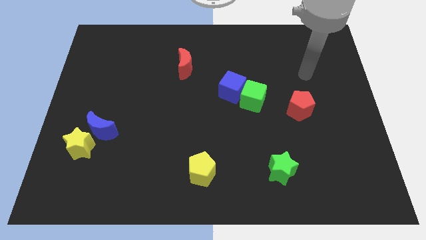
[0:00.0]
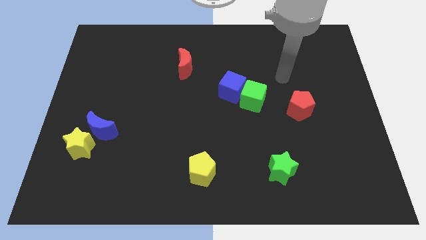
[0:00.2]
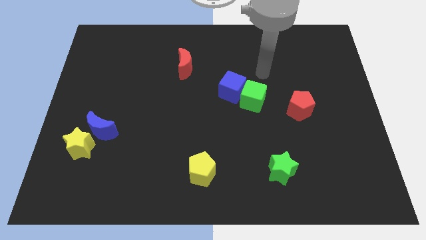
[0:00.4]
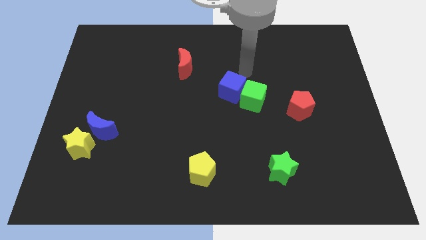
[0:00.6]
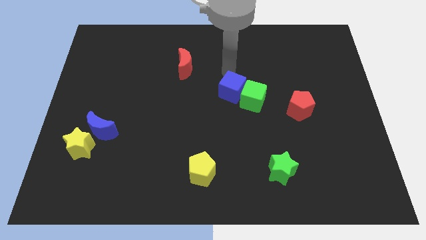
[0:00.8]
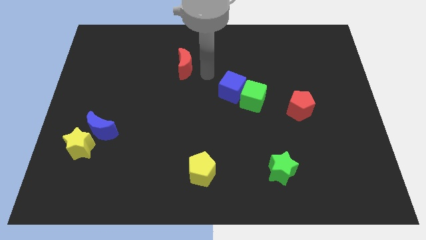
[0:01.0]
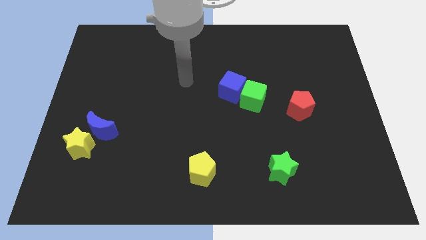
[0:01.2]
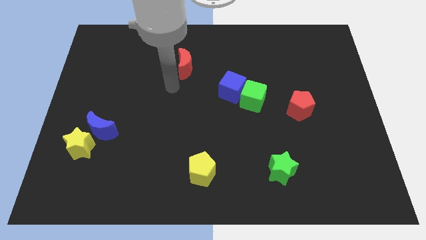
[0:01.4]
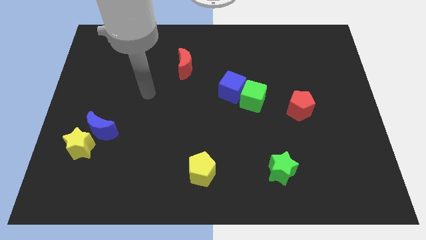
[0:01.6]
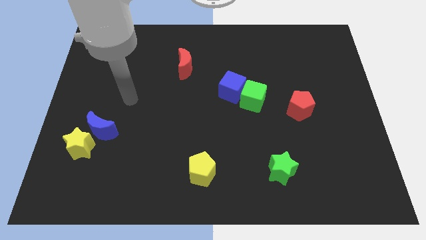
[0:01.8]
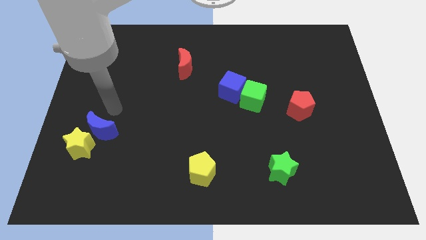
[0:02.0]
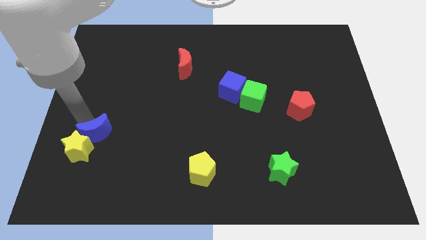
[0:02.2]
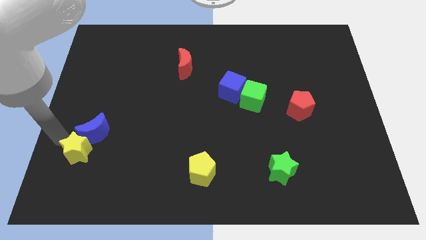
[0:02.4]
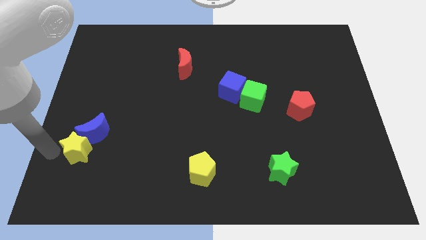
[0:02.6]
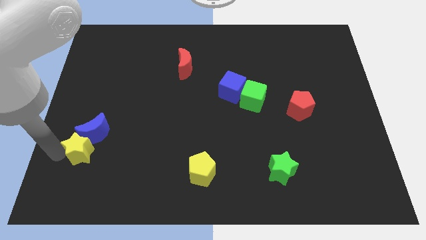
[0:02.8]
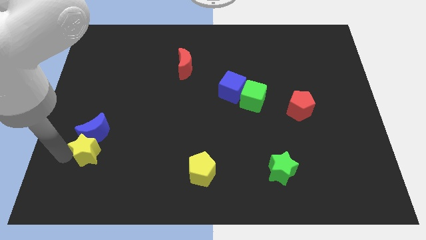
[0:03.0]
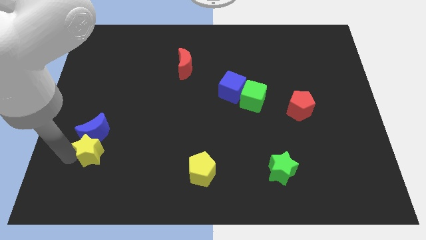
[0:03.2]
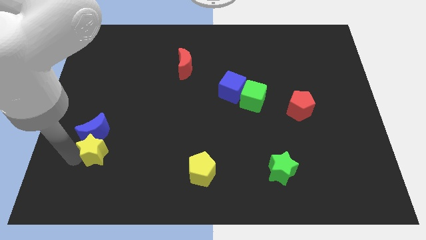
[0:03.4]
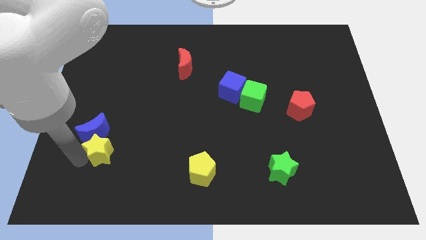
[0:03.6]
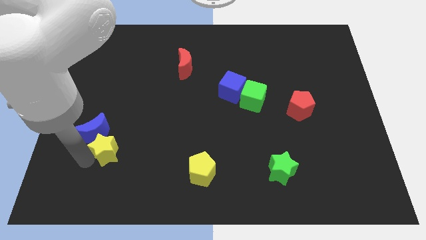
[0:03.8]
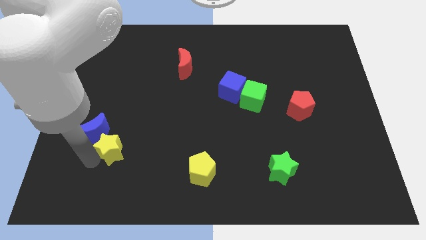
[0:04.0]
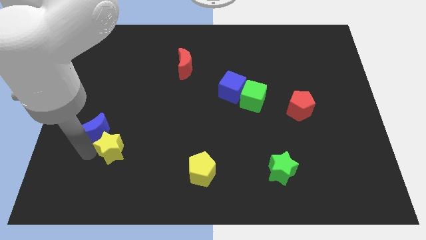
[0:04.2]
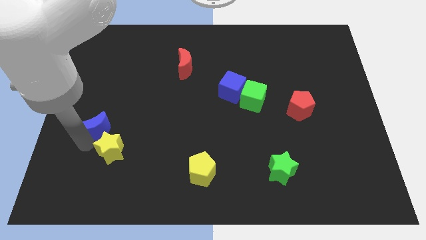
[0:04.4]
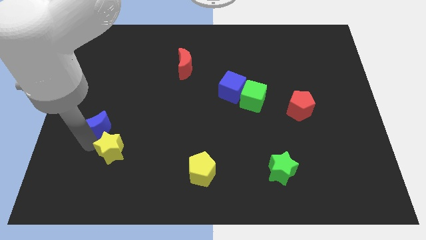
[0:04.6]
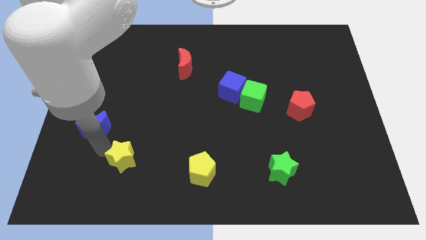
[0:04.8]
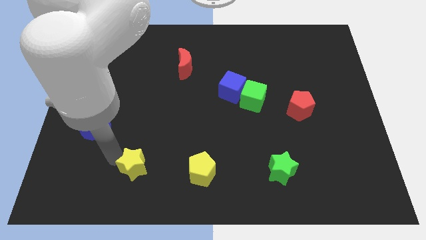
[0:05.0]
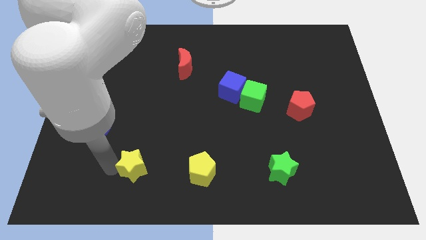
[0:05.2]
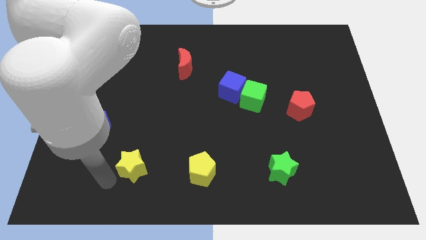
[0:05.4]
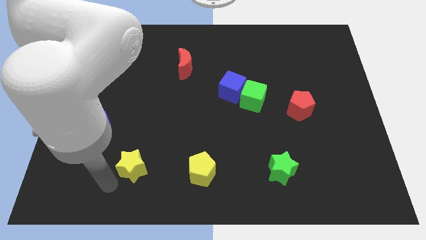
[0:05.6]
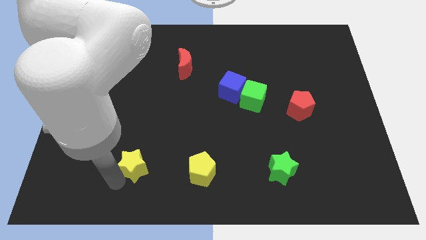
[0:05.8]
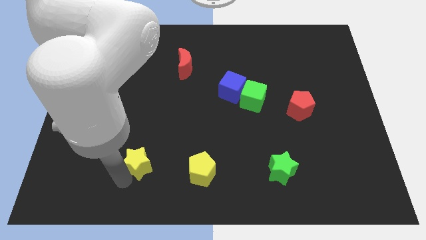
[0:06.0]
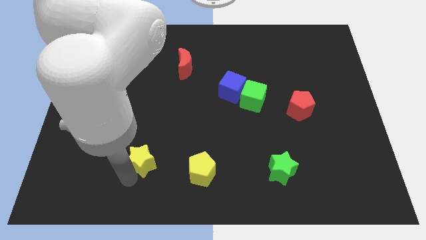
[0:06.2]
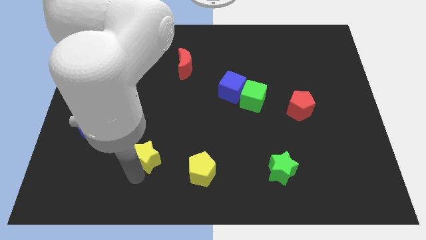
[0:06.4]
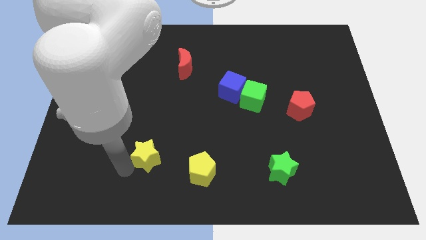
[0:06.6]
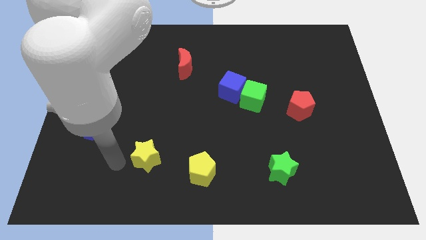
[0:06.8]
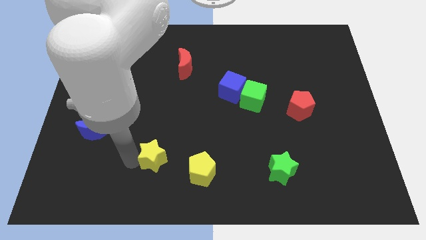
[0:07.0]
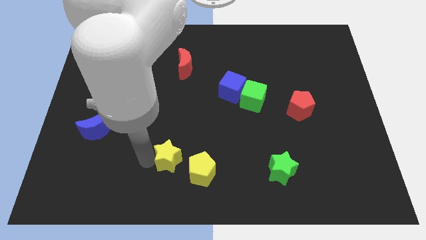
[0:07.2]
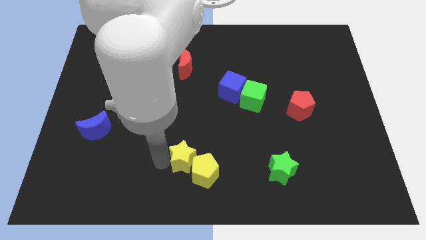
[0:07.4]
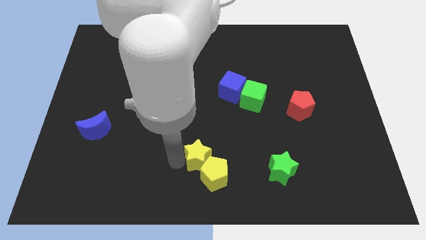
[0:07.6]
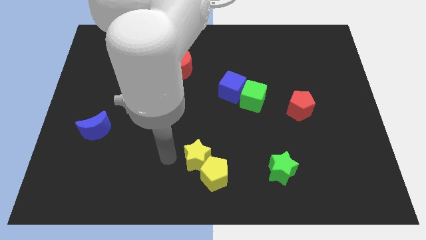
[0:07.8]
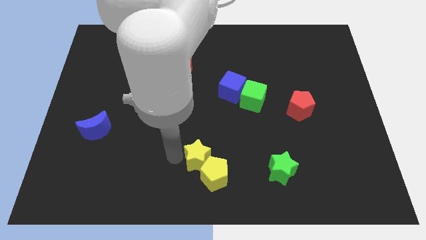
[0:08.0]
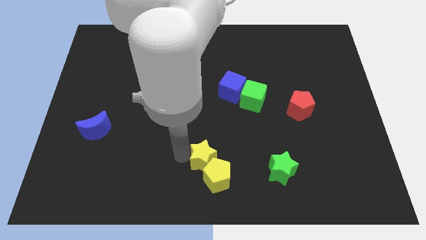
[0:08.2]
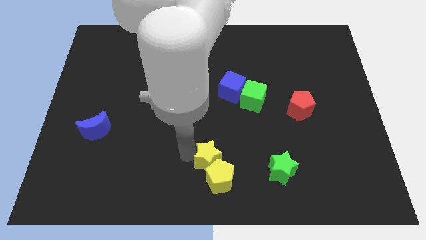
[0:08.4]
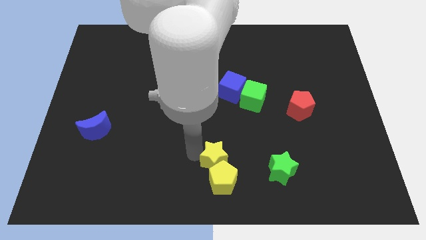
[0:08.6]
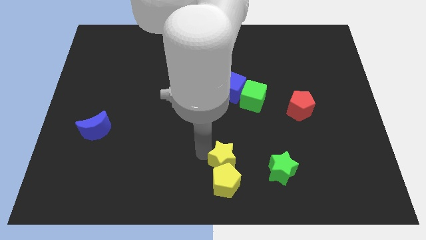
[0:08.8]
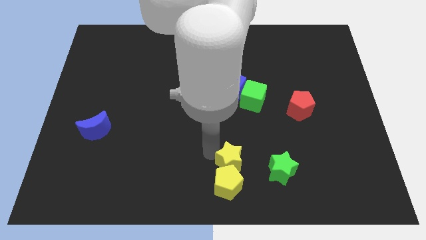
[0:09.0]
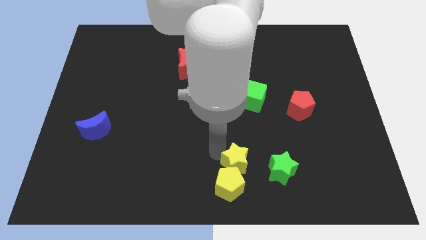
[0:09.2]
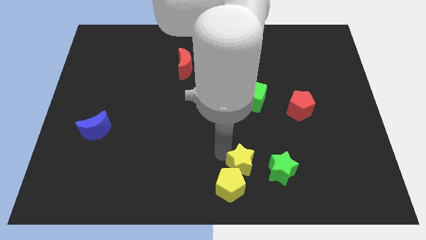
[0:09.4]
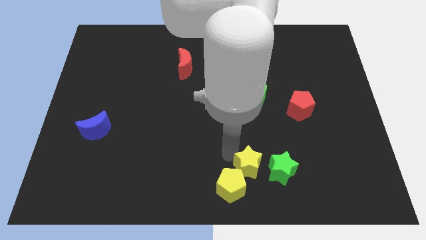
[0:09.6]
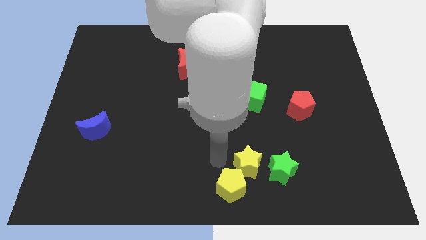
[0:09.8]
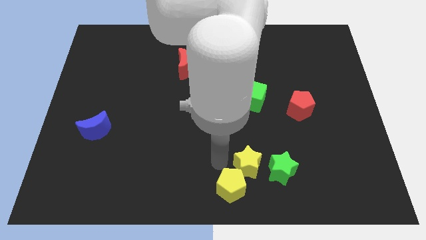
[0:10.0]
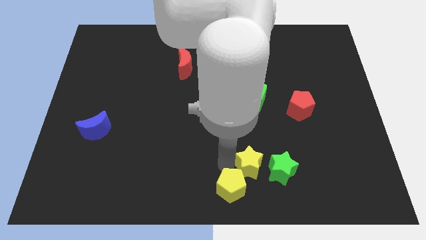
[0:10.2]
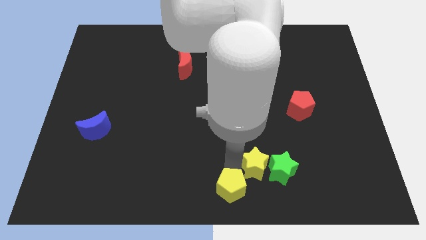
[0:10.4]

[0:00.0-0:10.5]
slide the yellow star close to the green star

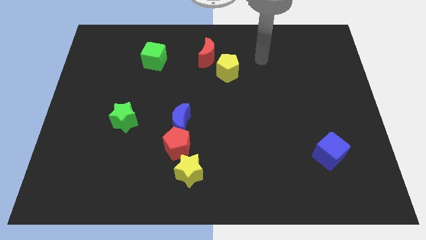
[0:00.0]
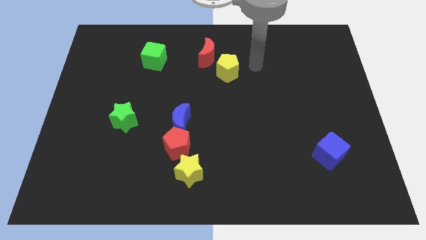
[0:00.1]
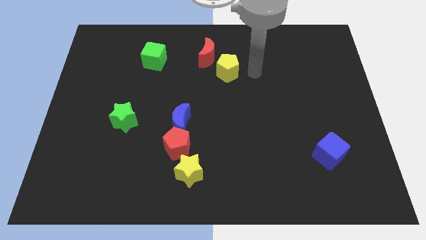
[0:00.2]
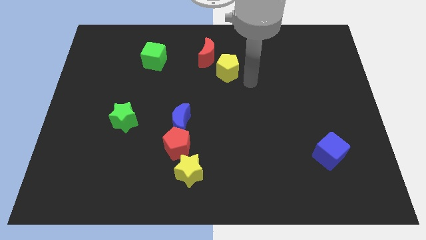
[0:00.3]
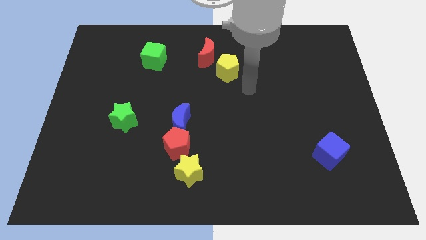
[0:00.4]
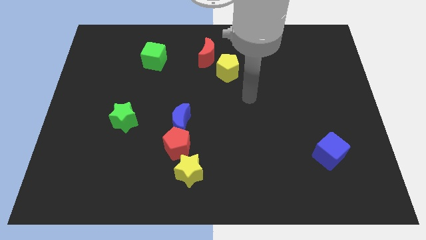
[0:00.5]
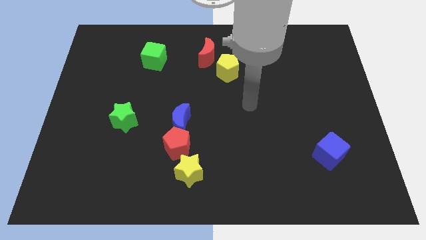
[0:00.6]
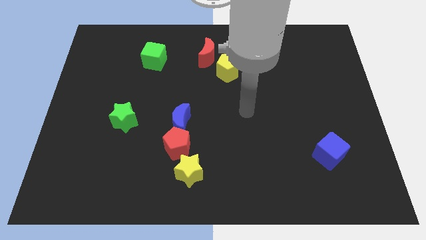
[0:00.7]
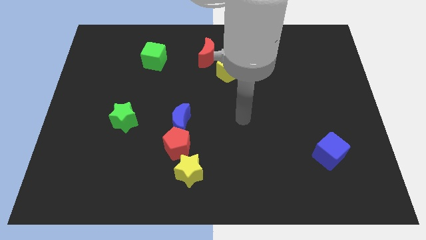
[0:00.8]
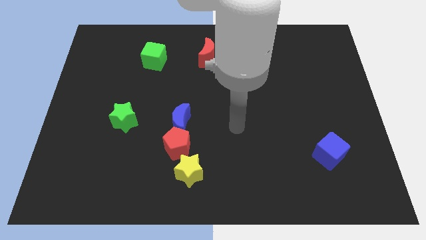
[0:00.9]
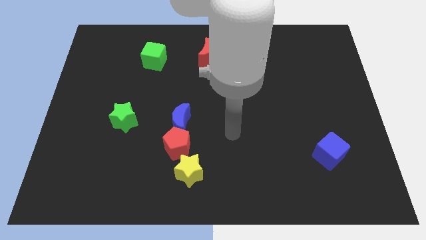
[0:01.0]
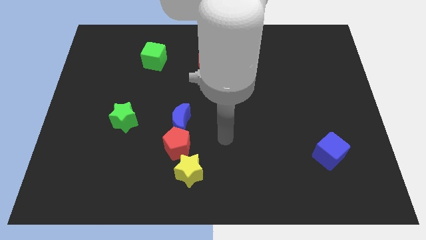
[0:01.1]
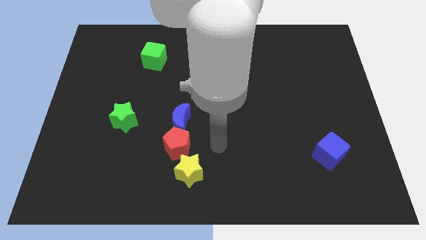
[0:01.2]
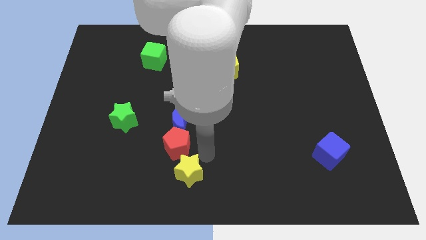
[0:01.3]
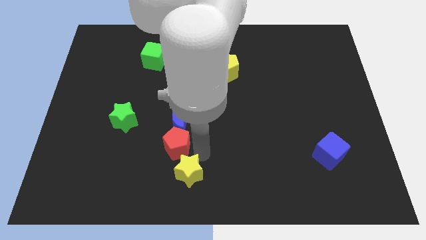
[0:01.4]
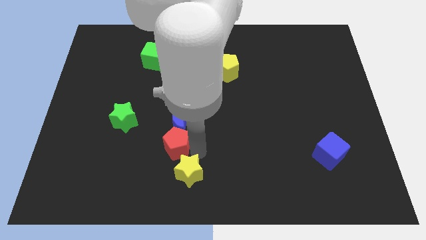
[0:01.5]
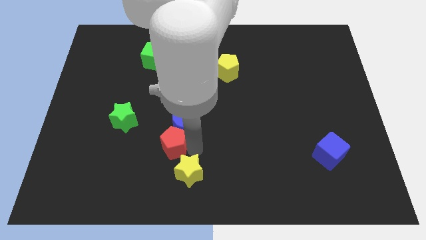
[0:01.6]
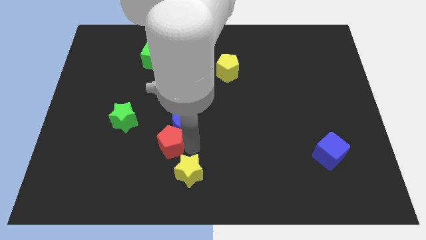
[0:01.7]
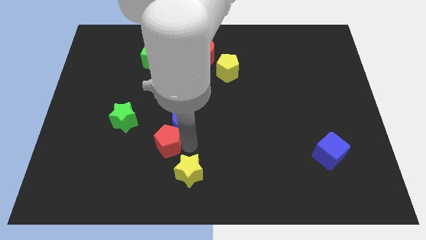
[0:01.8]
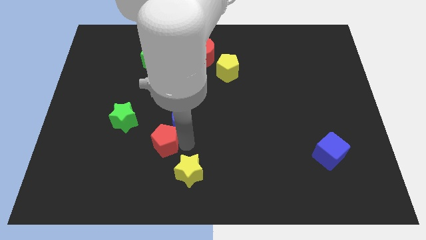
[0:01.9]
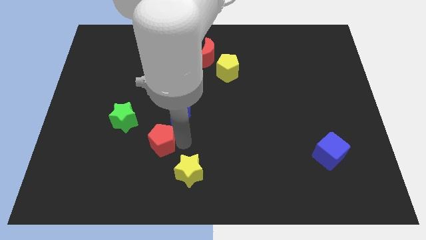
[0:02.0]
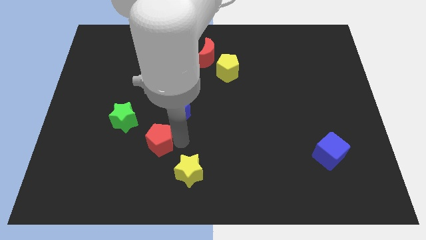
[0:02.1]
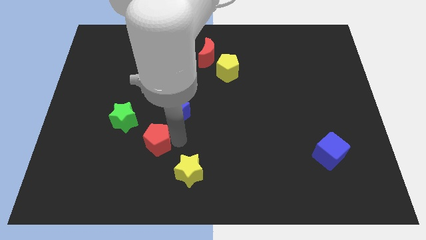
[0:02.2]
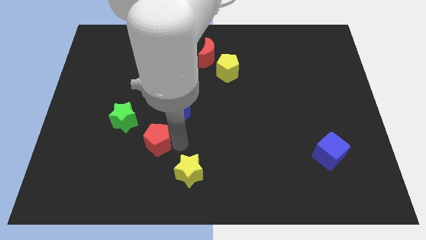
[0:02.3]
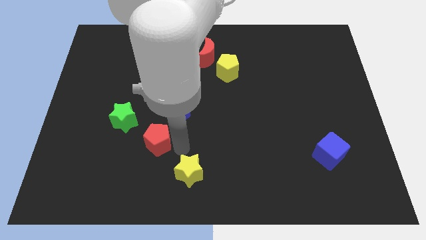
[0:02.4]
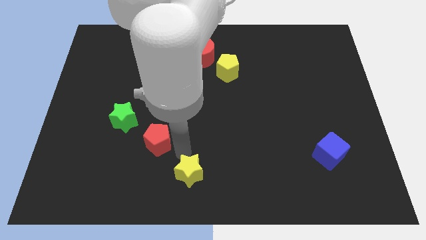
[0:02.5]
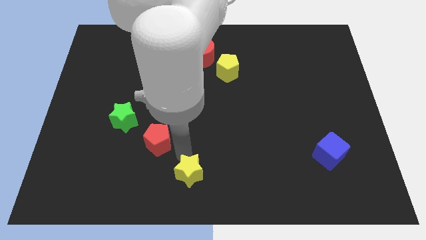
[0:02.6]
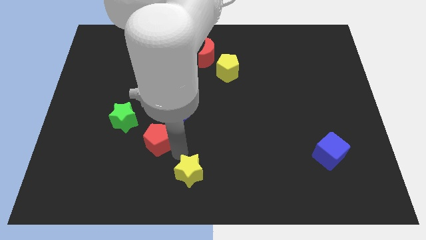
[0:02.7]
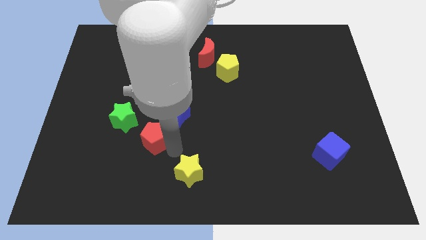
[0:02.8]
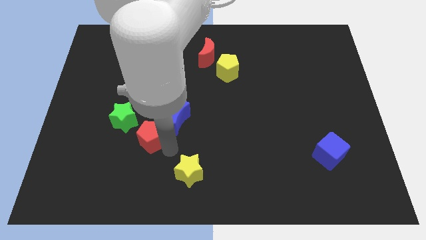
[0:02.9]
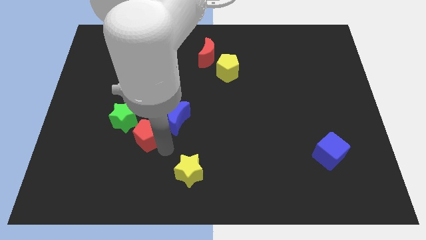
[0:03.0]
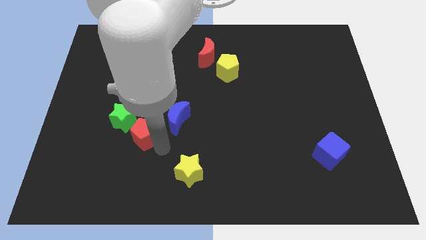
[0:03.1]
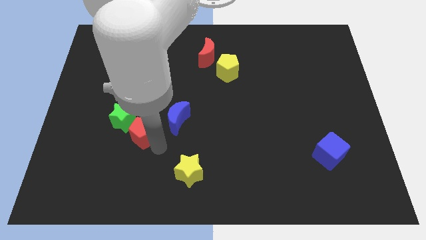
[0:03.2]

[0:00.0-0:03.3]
push the red pentagon to the green star
